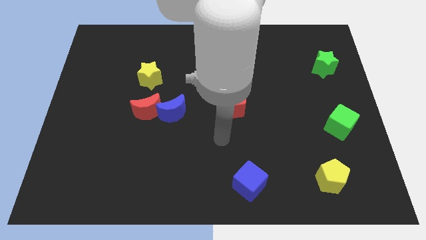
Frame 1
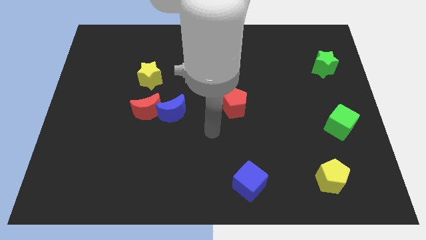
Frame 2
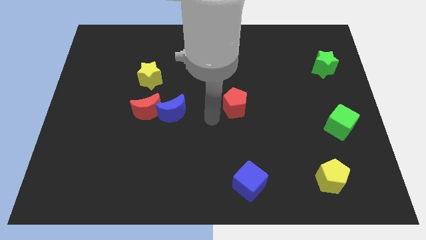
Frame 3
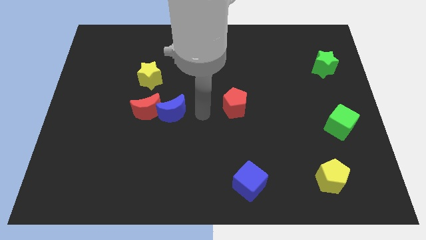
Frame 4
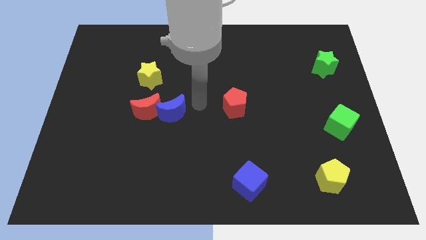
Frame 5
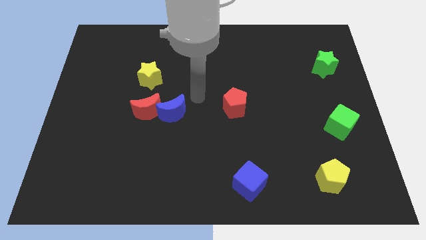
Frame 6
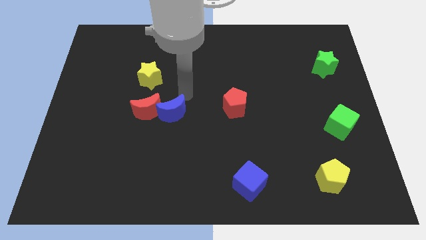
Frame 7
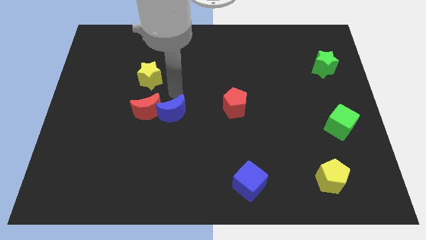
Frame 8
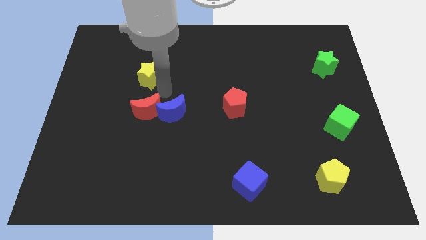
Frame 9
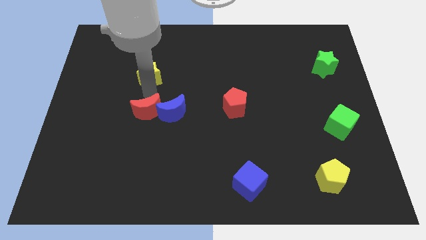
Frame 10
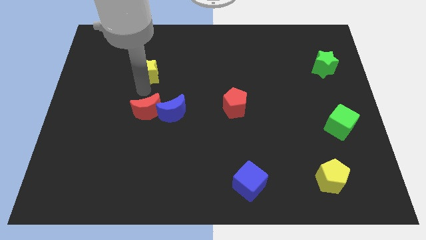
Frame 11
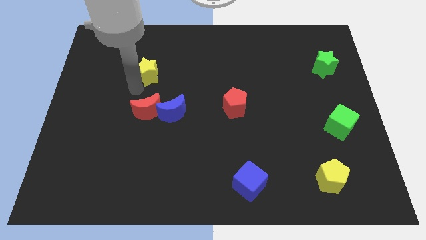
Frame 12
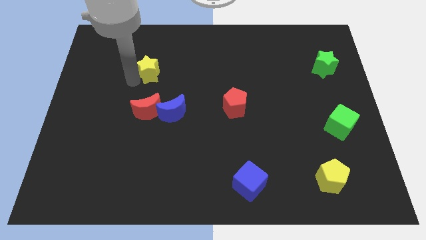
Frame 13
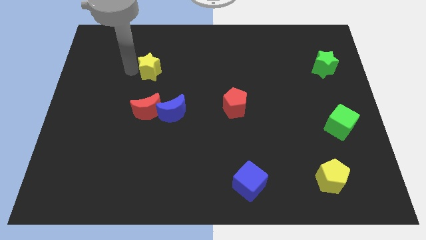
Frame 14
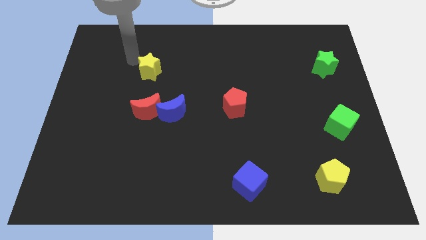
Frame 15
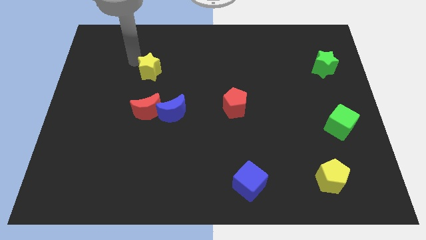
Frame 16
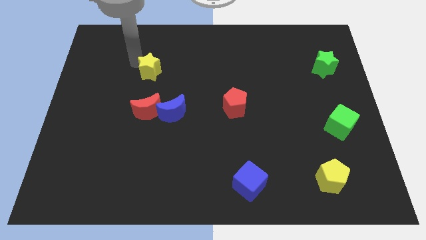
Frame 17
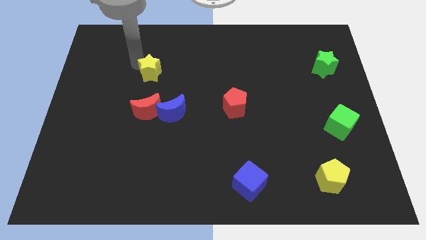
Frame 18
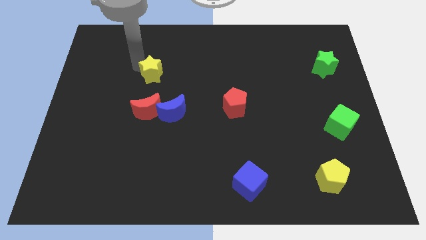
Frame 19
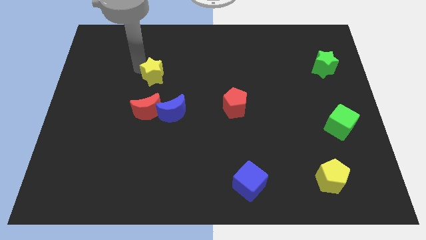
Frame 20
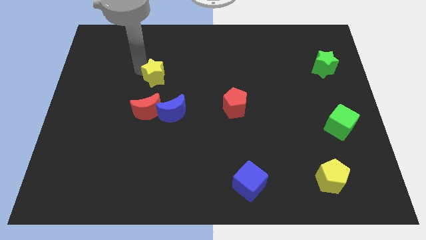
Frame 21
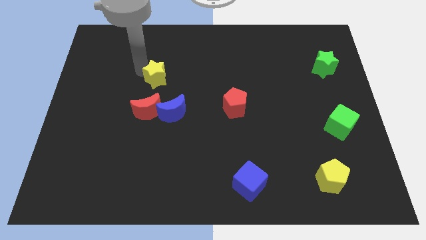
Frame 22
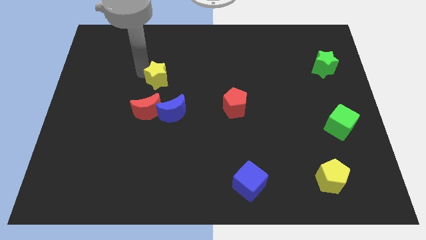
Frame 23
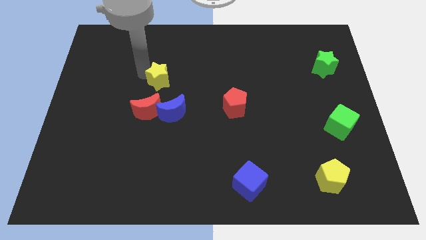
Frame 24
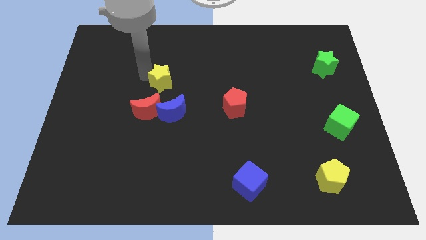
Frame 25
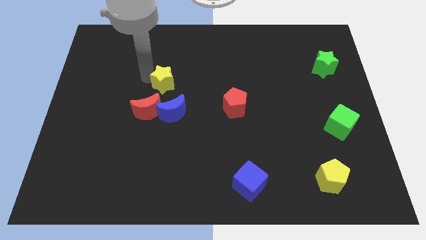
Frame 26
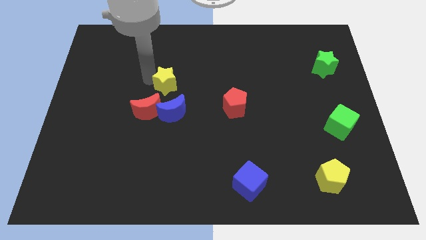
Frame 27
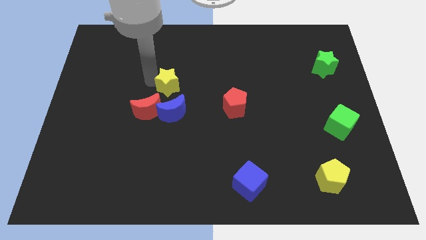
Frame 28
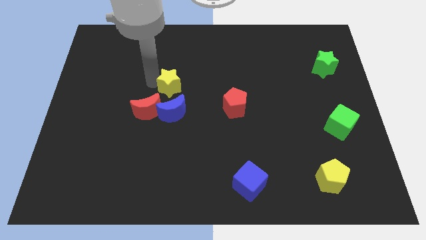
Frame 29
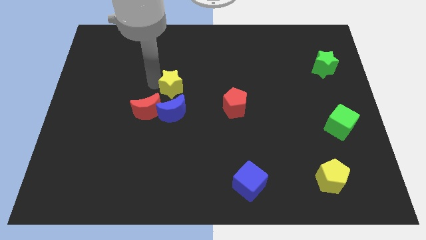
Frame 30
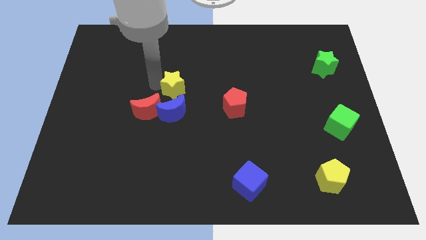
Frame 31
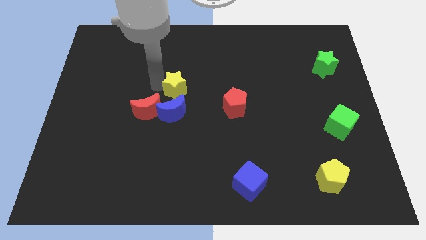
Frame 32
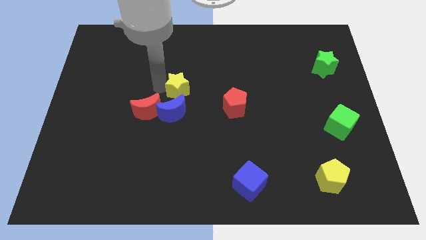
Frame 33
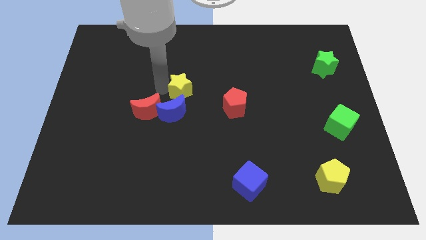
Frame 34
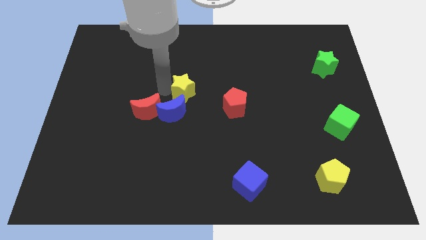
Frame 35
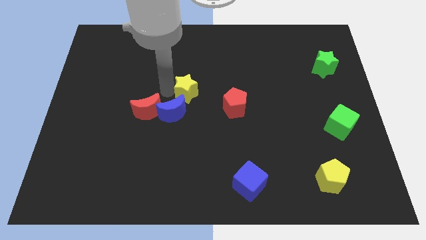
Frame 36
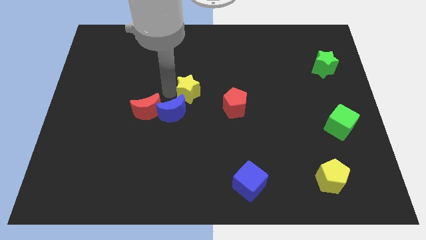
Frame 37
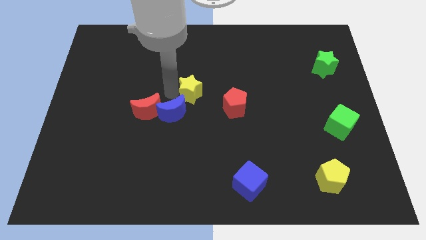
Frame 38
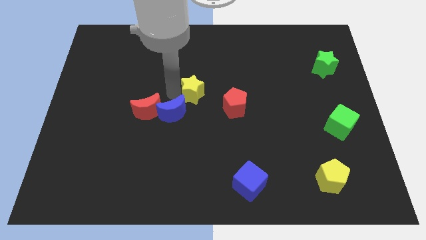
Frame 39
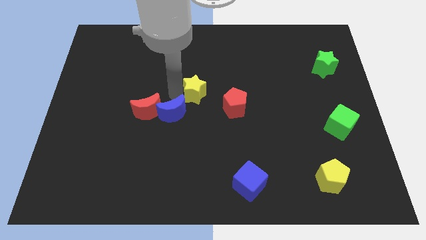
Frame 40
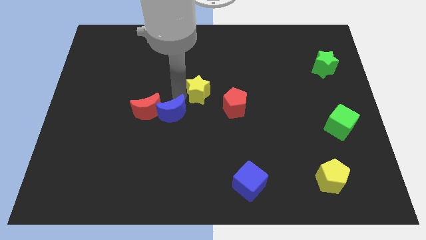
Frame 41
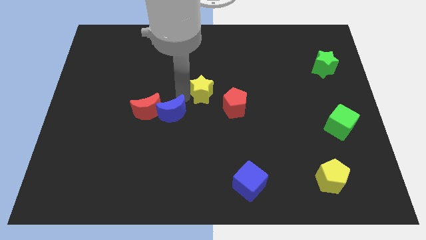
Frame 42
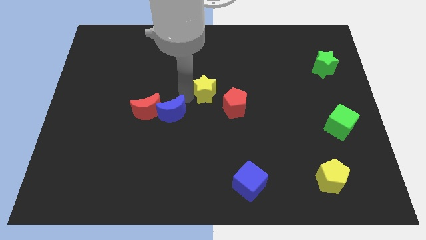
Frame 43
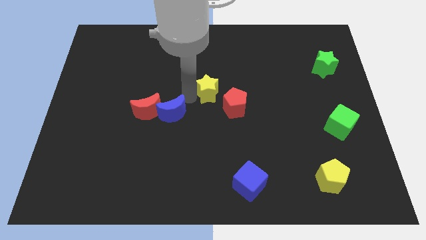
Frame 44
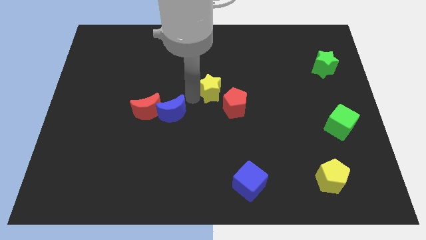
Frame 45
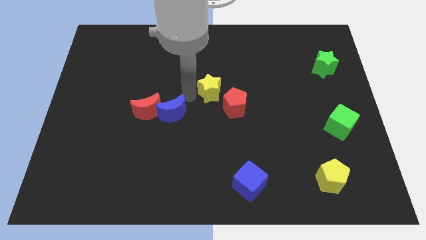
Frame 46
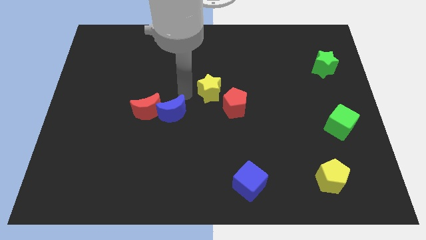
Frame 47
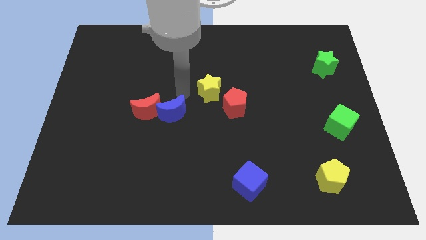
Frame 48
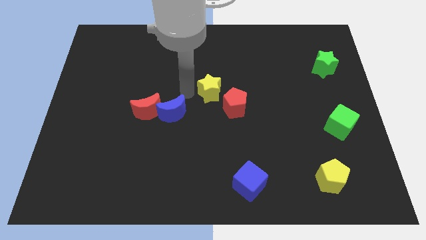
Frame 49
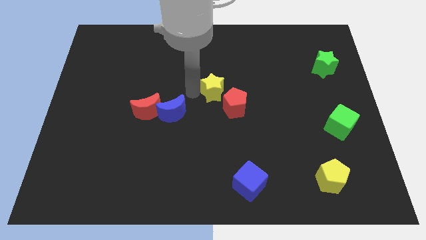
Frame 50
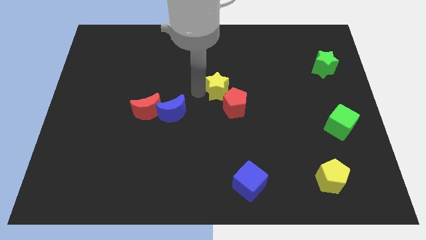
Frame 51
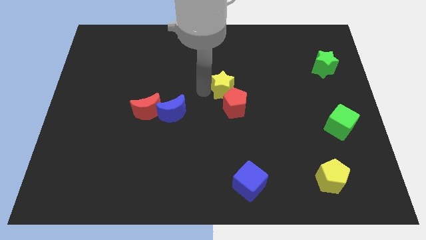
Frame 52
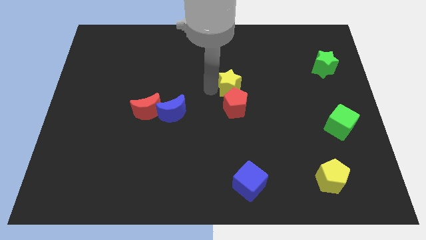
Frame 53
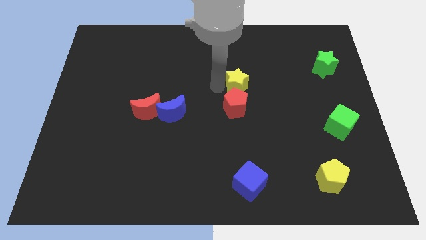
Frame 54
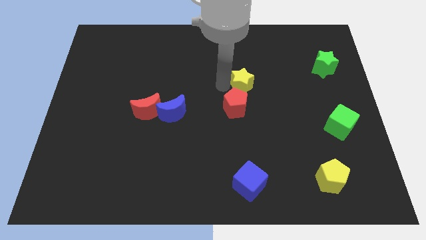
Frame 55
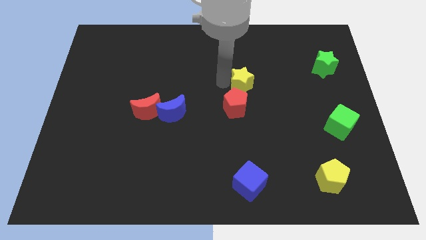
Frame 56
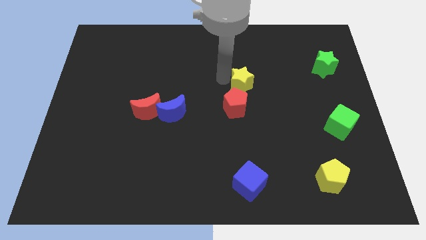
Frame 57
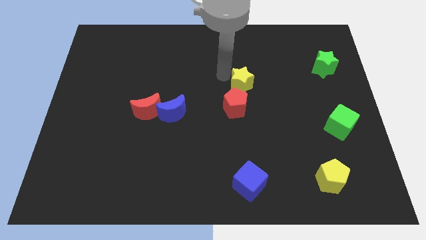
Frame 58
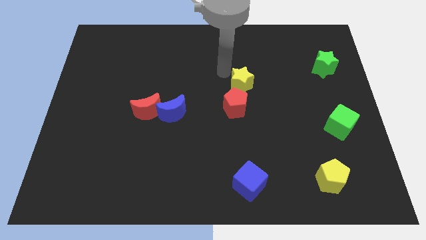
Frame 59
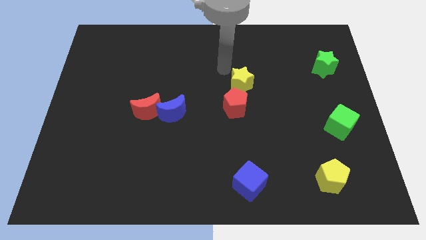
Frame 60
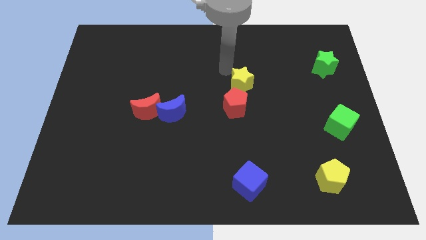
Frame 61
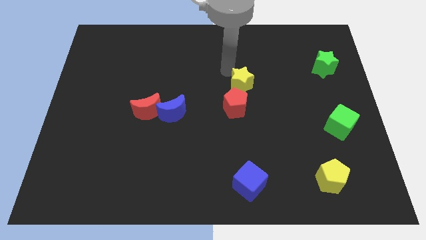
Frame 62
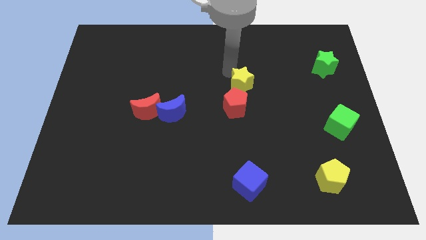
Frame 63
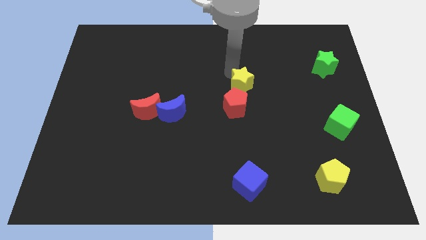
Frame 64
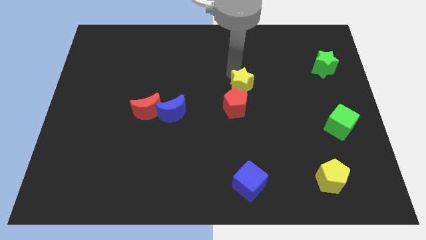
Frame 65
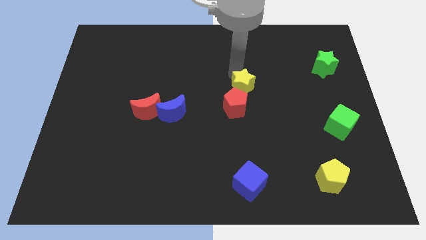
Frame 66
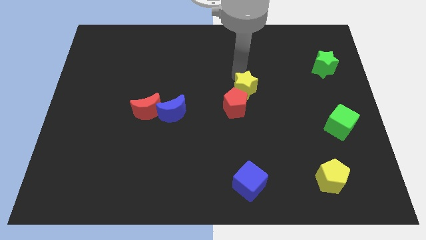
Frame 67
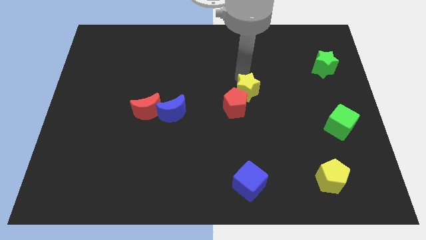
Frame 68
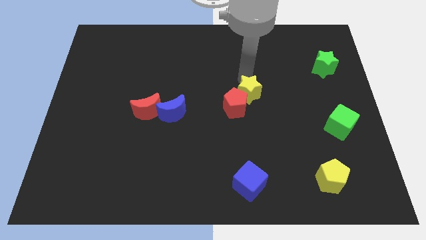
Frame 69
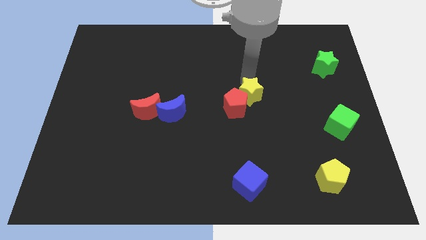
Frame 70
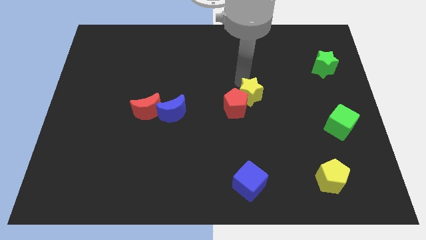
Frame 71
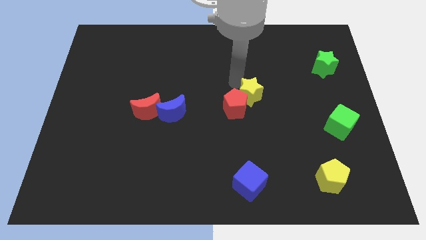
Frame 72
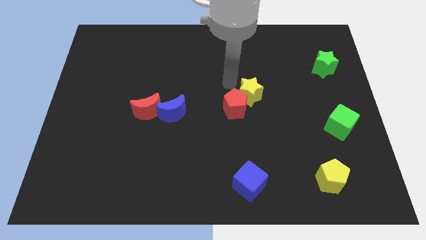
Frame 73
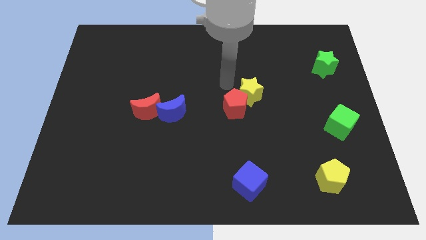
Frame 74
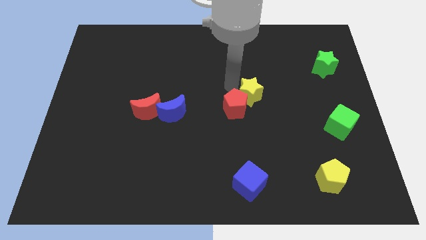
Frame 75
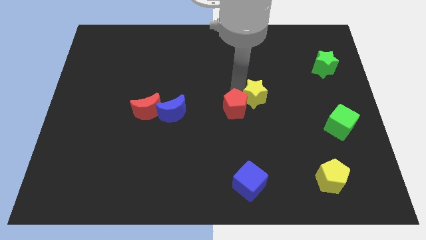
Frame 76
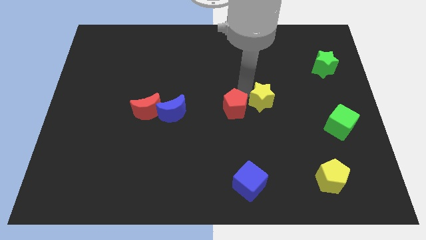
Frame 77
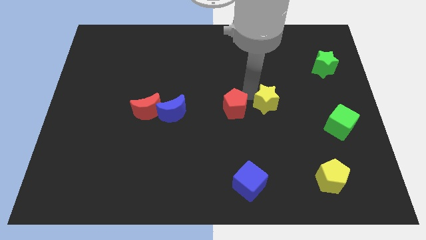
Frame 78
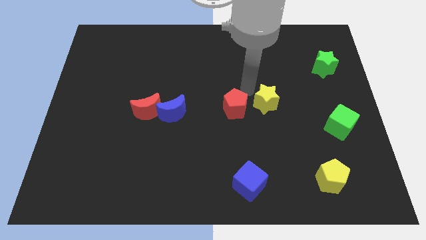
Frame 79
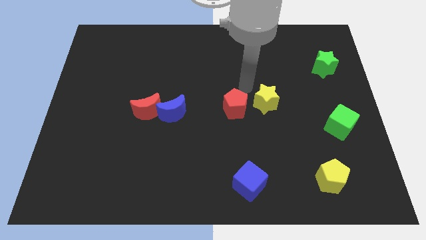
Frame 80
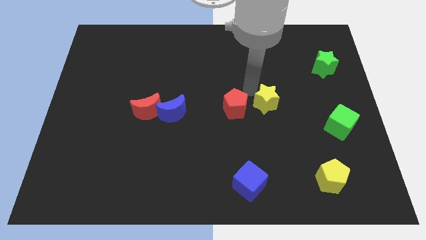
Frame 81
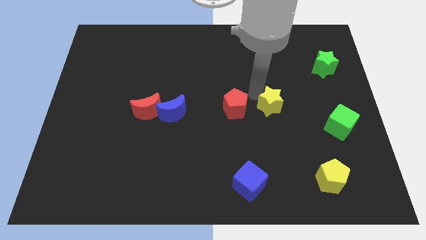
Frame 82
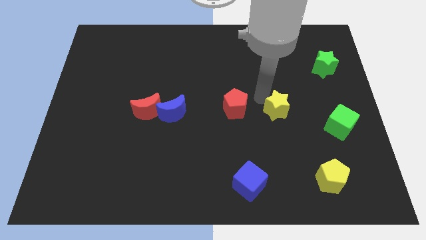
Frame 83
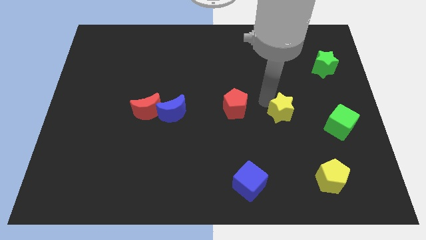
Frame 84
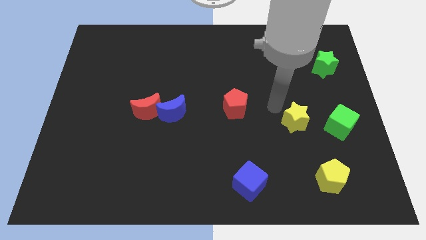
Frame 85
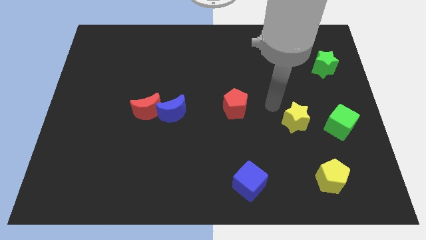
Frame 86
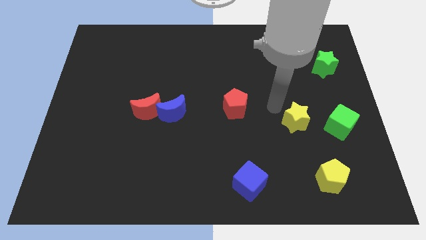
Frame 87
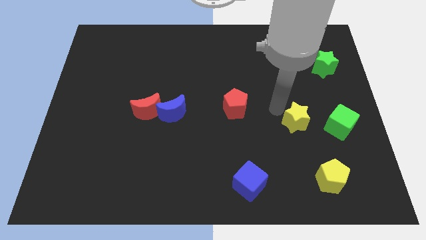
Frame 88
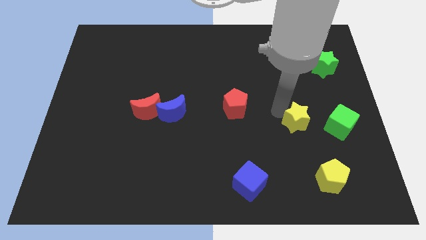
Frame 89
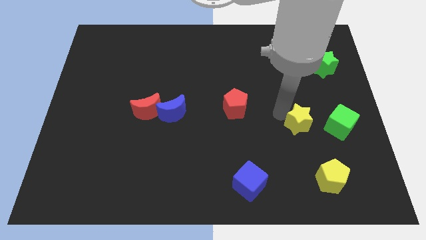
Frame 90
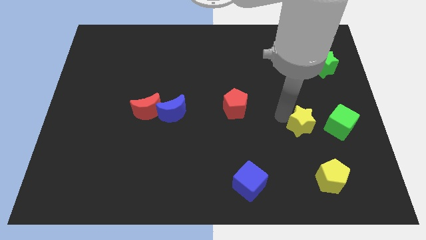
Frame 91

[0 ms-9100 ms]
push the yellow star above the yellow pentagon
